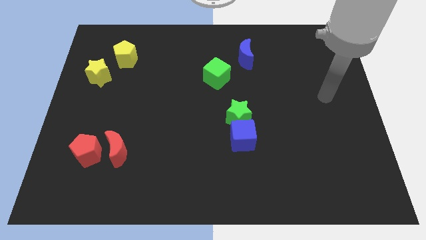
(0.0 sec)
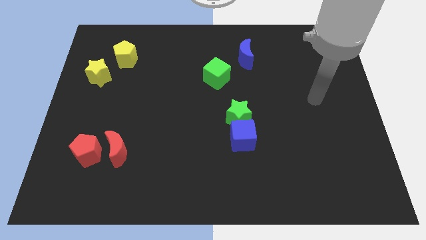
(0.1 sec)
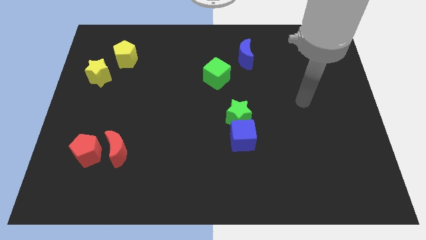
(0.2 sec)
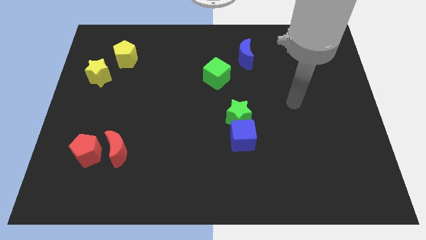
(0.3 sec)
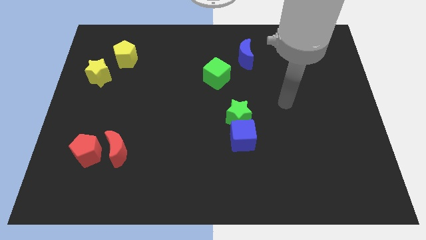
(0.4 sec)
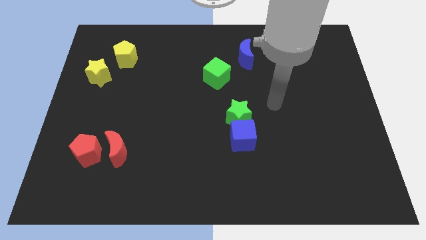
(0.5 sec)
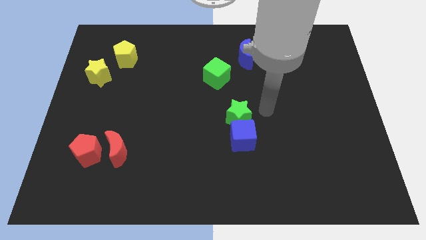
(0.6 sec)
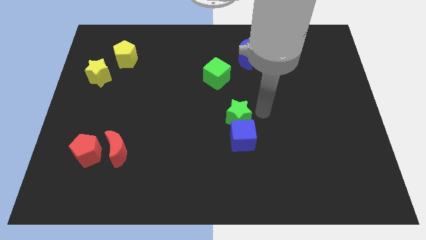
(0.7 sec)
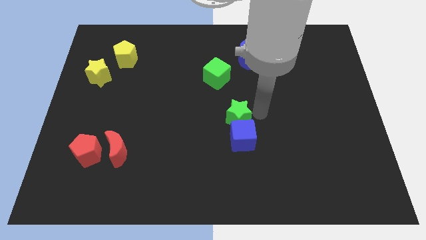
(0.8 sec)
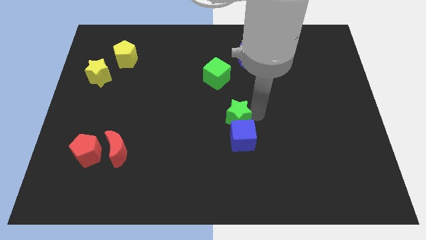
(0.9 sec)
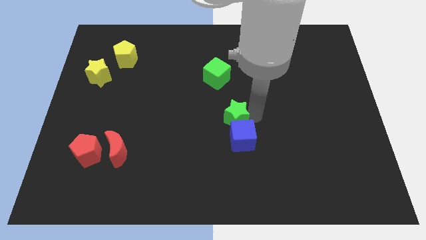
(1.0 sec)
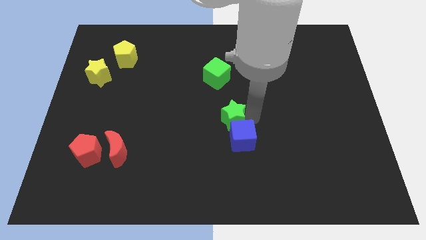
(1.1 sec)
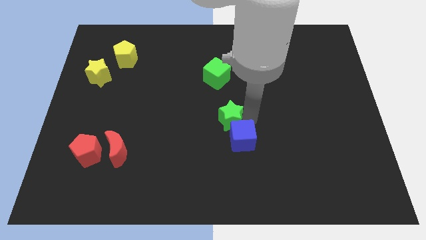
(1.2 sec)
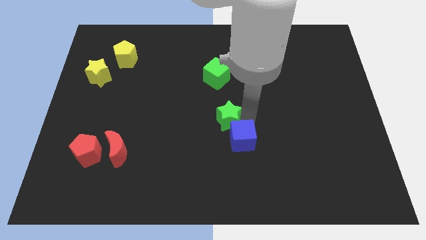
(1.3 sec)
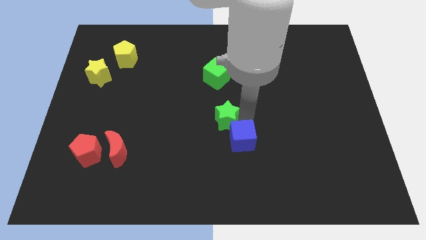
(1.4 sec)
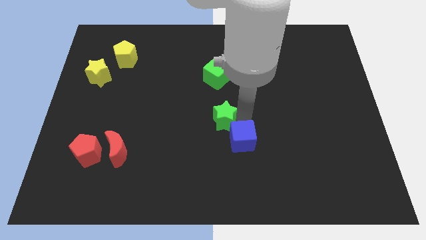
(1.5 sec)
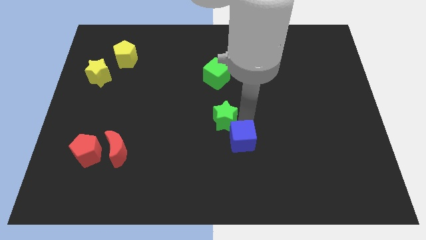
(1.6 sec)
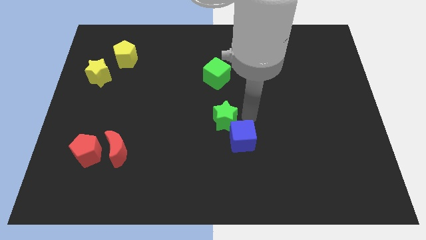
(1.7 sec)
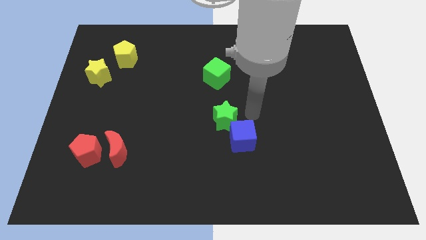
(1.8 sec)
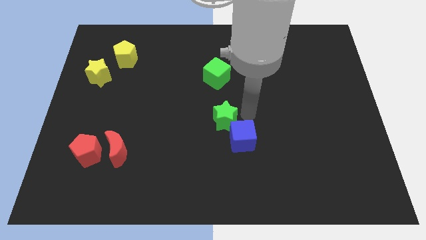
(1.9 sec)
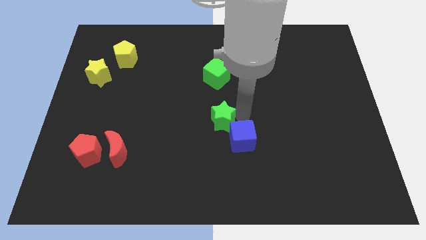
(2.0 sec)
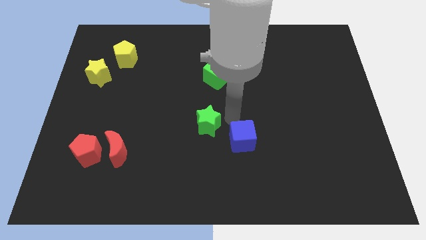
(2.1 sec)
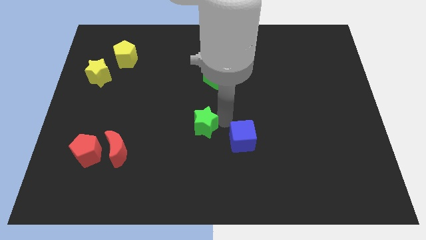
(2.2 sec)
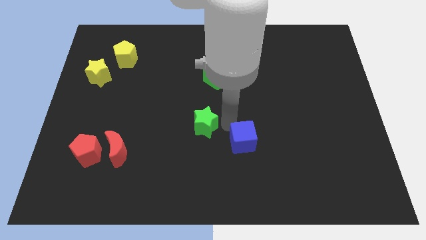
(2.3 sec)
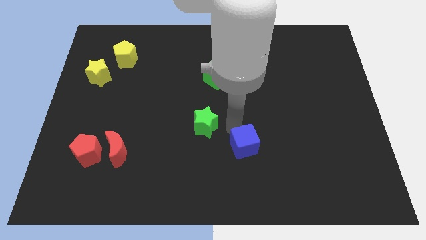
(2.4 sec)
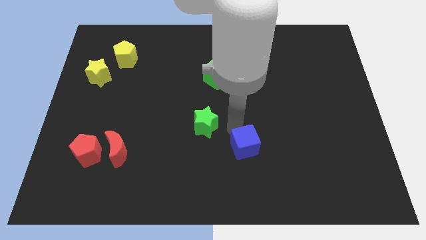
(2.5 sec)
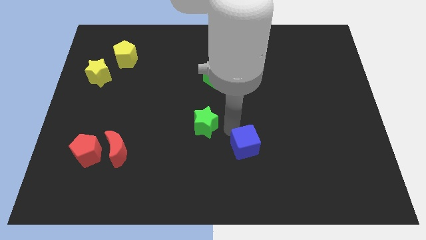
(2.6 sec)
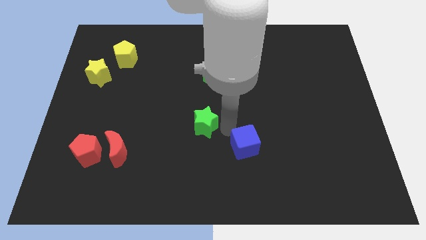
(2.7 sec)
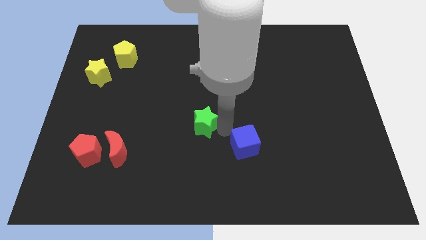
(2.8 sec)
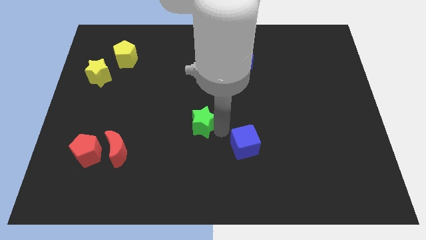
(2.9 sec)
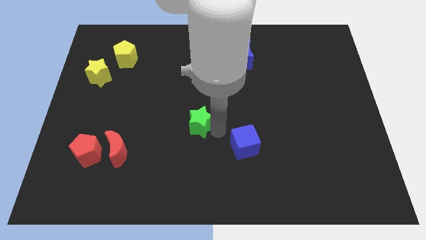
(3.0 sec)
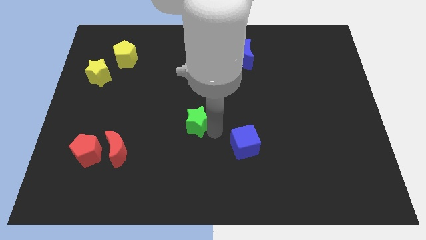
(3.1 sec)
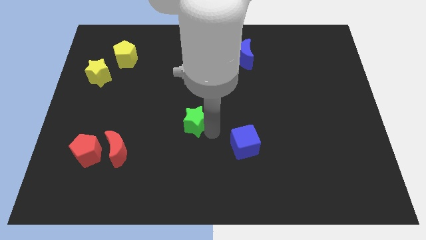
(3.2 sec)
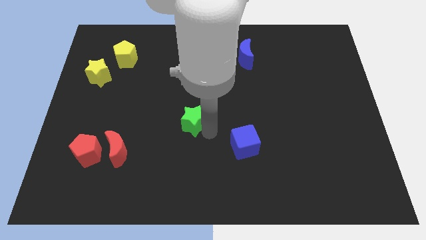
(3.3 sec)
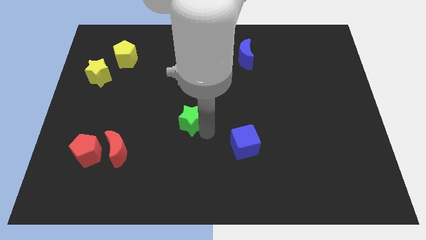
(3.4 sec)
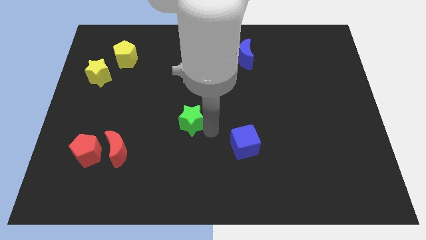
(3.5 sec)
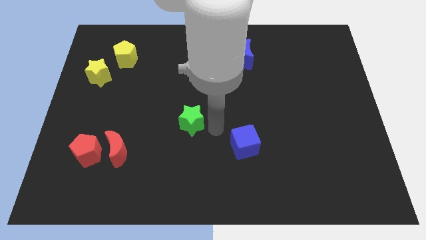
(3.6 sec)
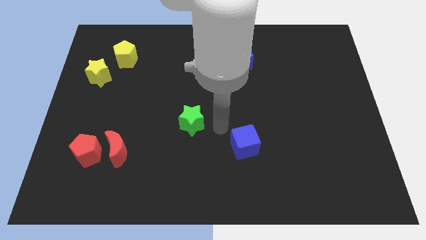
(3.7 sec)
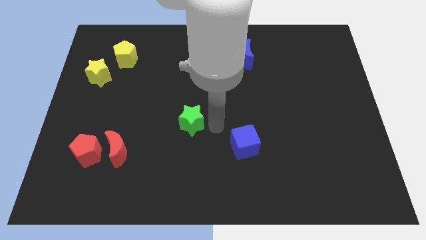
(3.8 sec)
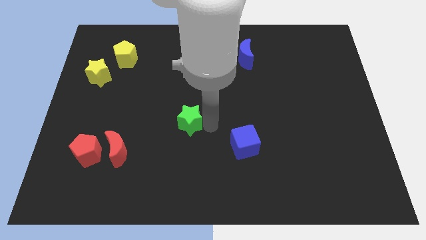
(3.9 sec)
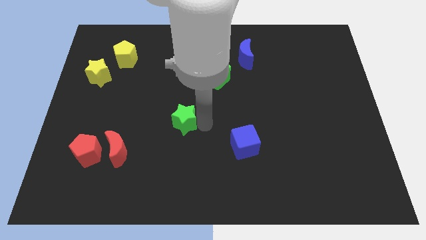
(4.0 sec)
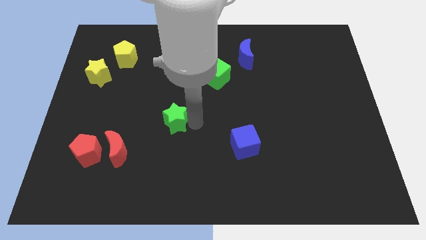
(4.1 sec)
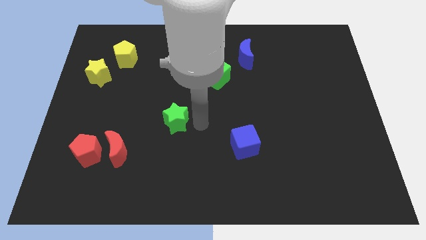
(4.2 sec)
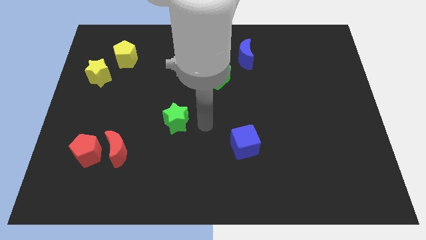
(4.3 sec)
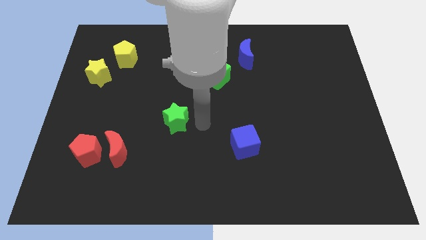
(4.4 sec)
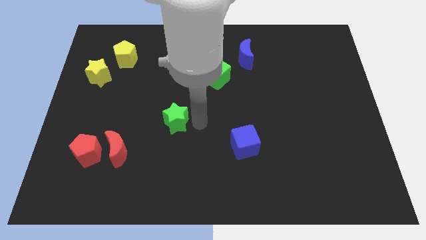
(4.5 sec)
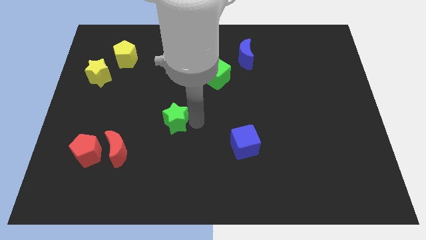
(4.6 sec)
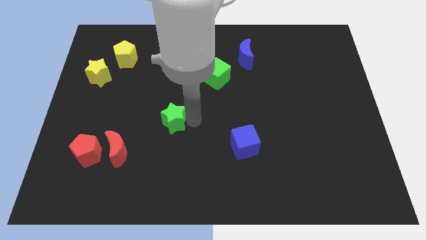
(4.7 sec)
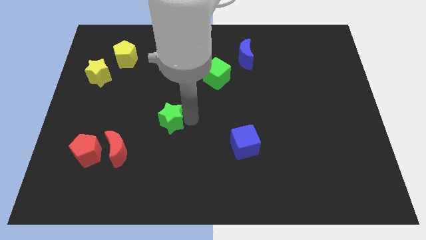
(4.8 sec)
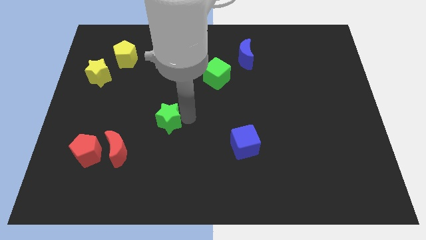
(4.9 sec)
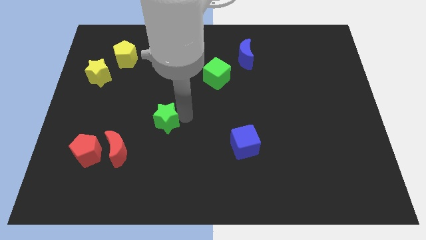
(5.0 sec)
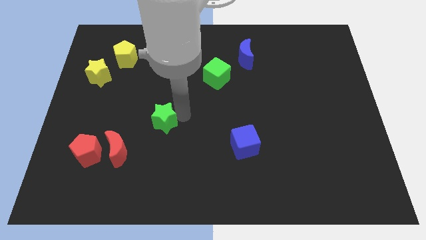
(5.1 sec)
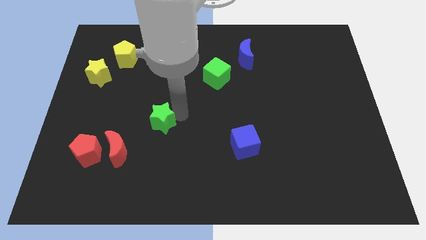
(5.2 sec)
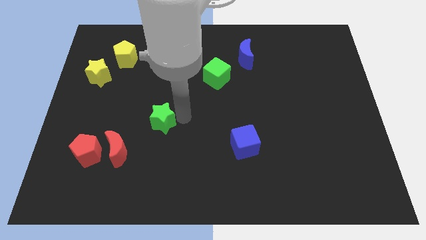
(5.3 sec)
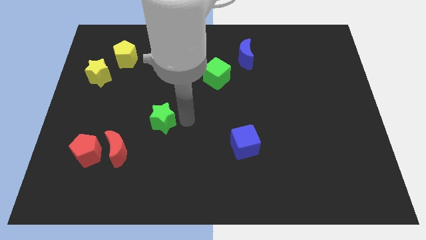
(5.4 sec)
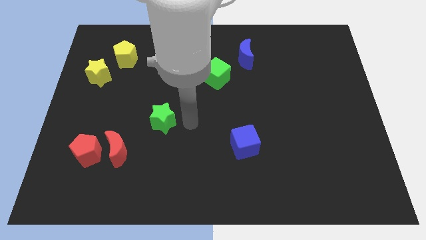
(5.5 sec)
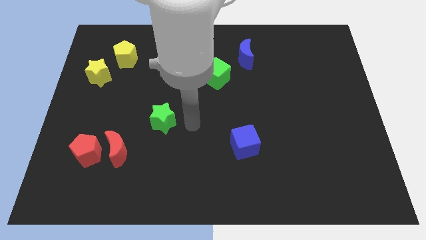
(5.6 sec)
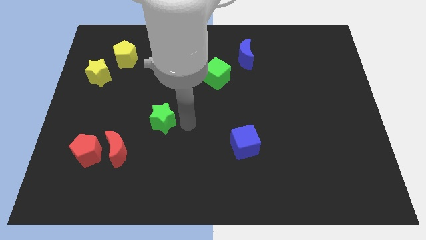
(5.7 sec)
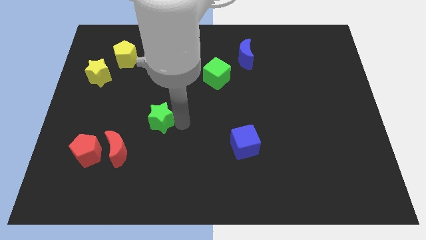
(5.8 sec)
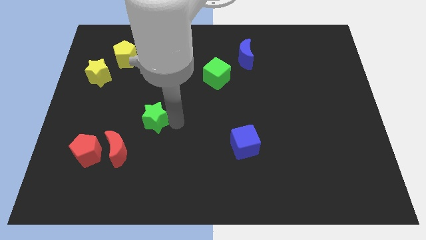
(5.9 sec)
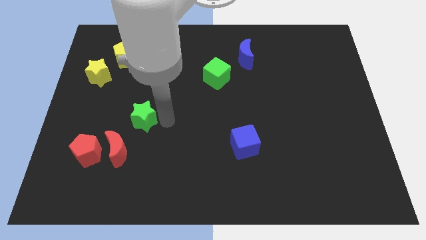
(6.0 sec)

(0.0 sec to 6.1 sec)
move the green star to the left

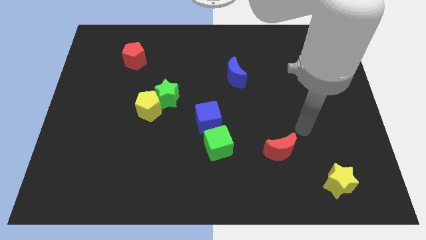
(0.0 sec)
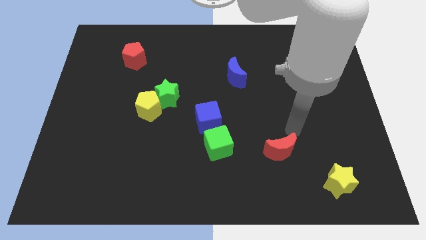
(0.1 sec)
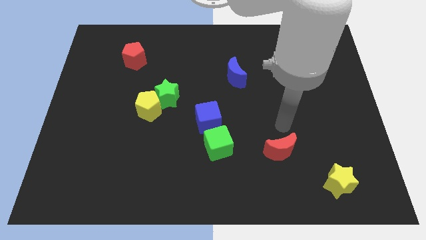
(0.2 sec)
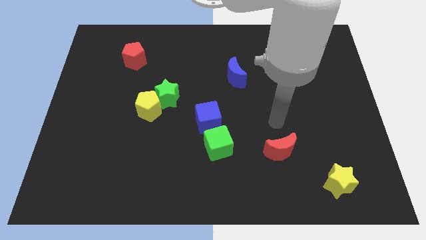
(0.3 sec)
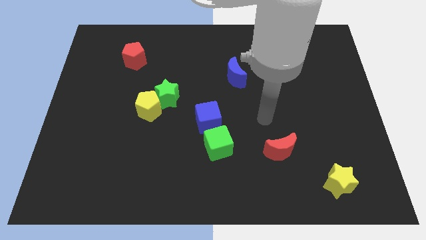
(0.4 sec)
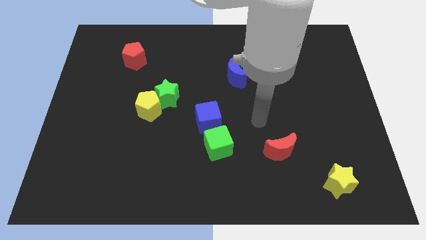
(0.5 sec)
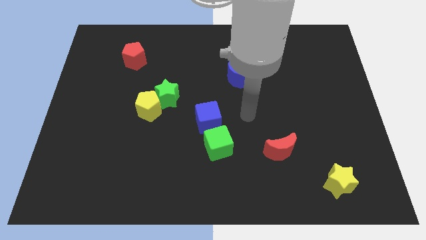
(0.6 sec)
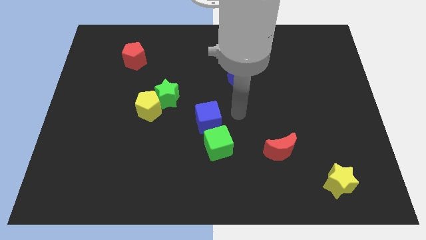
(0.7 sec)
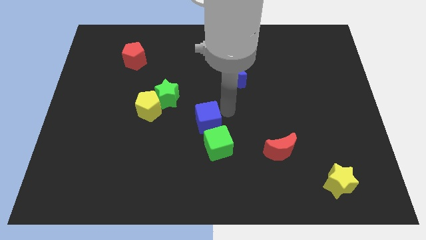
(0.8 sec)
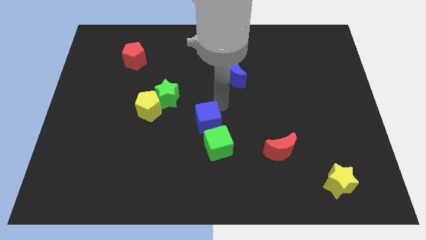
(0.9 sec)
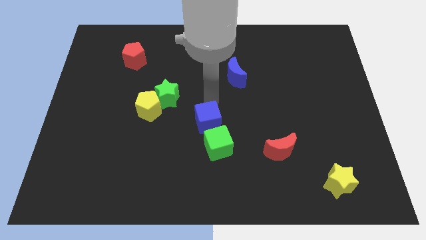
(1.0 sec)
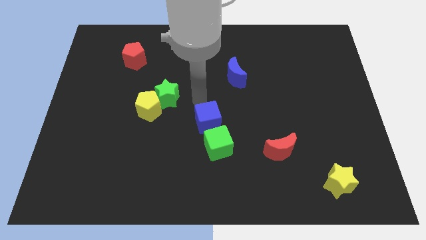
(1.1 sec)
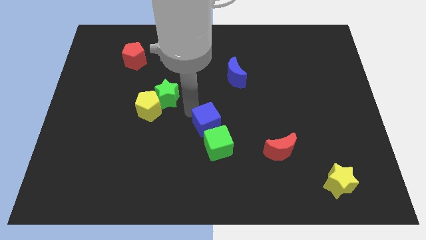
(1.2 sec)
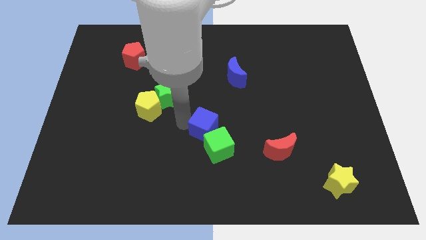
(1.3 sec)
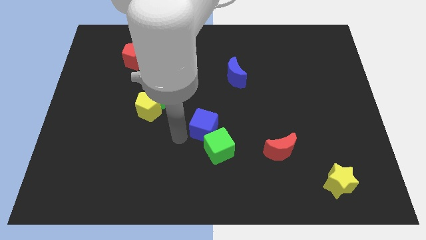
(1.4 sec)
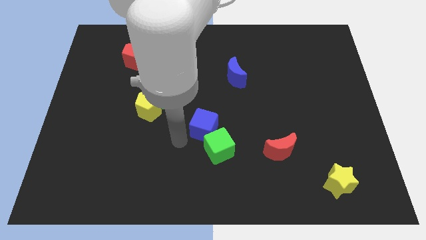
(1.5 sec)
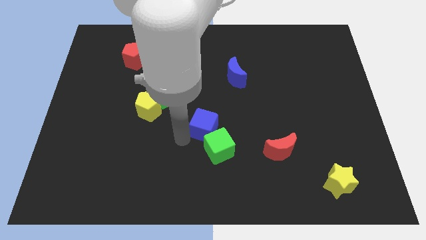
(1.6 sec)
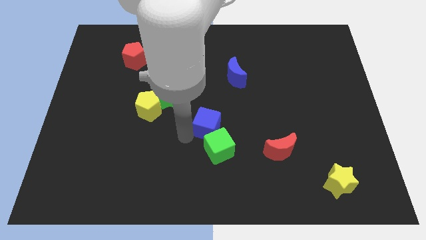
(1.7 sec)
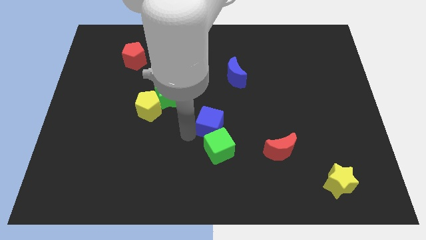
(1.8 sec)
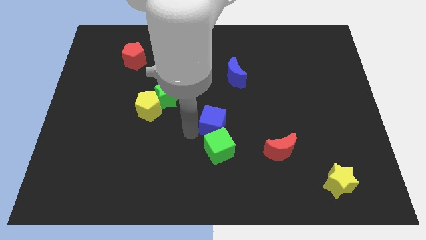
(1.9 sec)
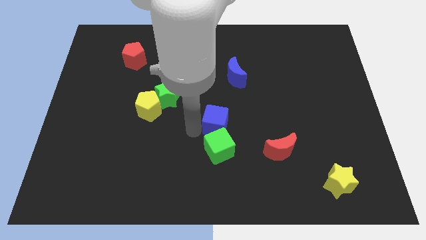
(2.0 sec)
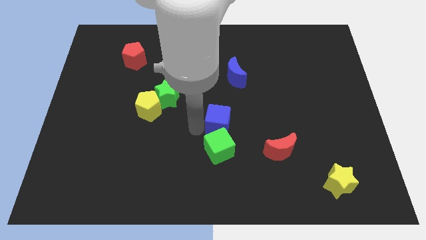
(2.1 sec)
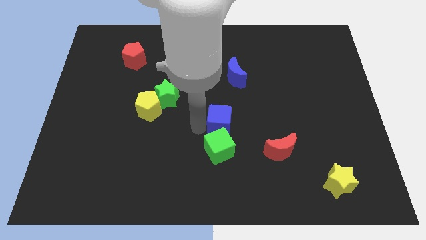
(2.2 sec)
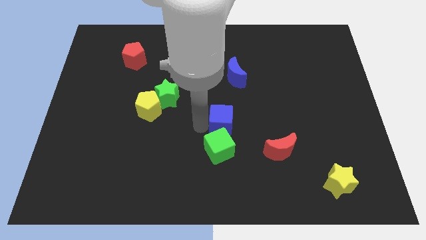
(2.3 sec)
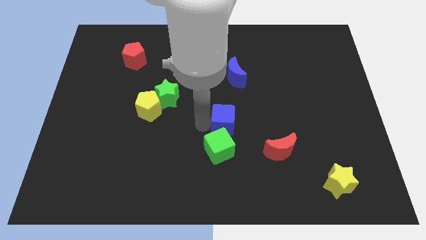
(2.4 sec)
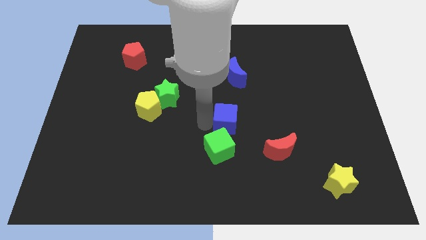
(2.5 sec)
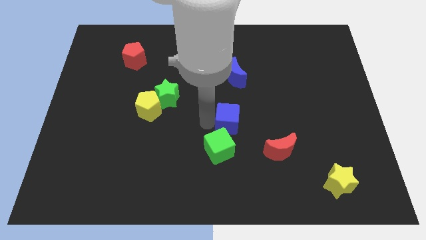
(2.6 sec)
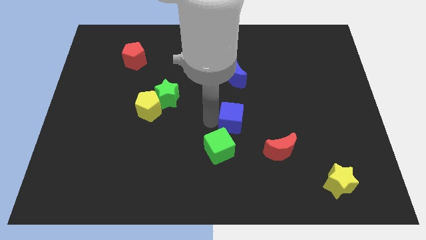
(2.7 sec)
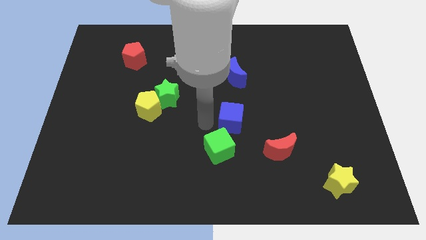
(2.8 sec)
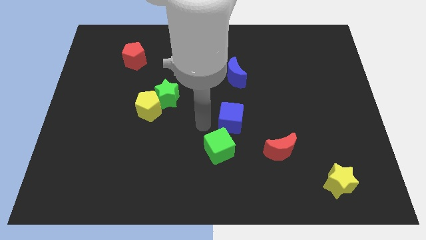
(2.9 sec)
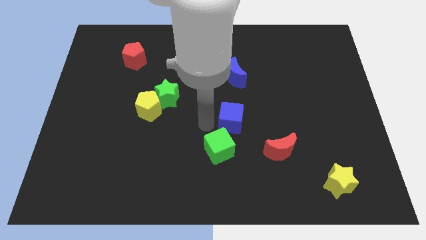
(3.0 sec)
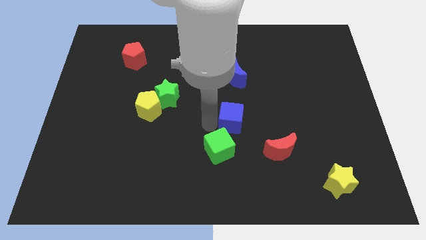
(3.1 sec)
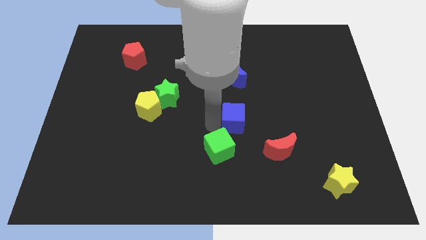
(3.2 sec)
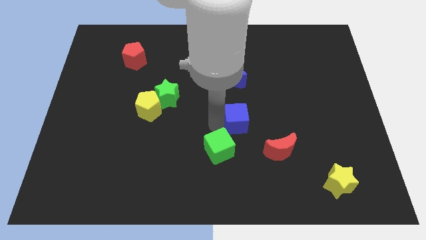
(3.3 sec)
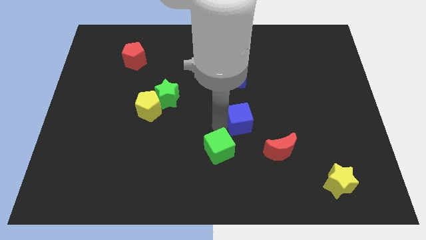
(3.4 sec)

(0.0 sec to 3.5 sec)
slightly slide the blue cube to the right
